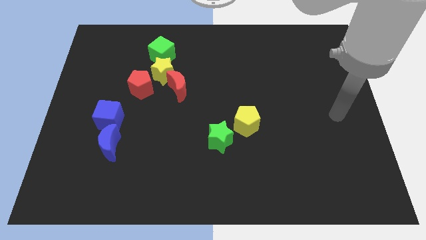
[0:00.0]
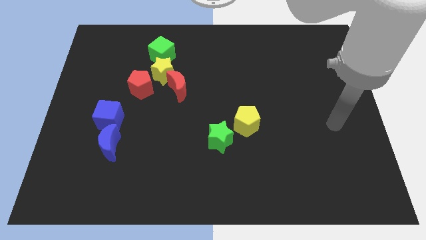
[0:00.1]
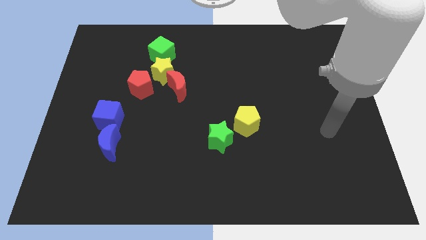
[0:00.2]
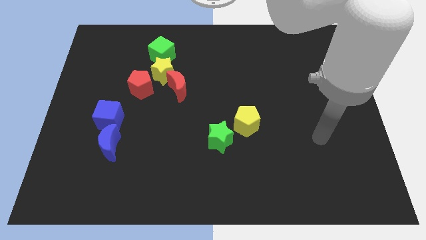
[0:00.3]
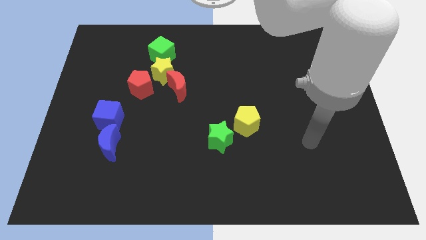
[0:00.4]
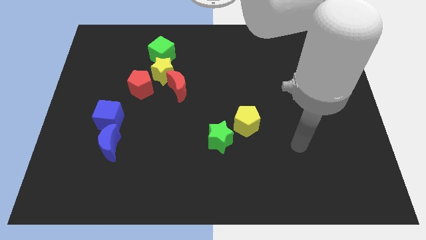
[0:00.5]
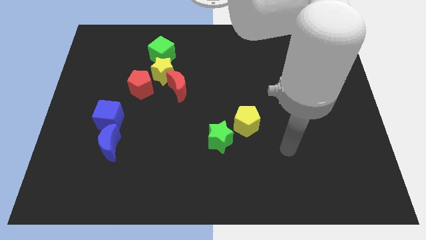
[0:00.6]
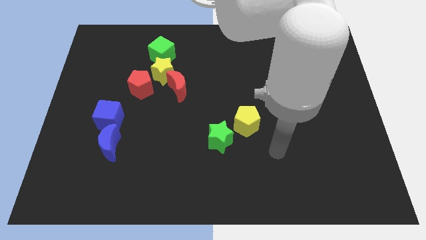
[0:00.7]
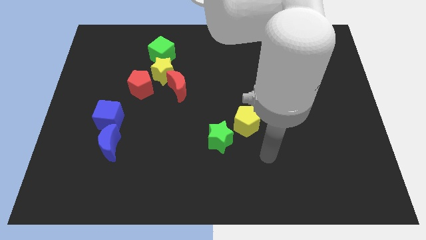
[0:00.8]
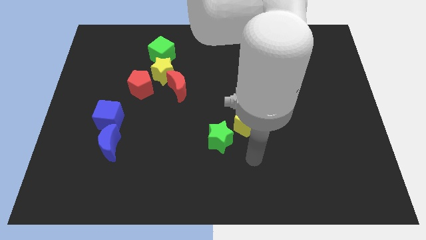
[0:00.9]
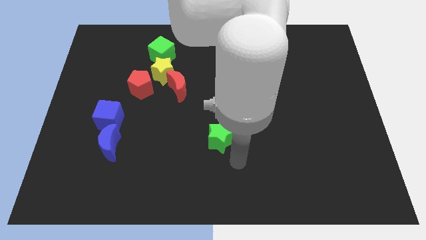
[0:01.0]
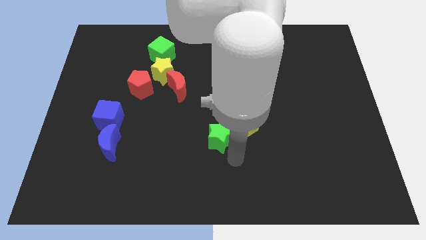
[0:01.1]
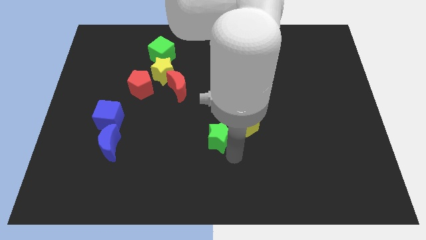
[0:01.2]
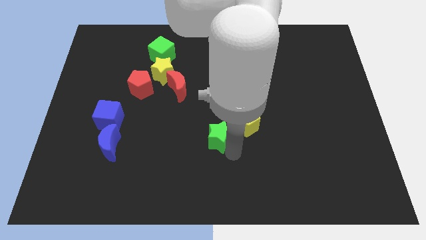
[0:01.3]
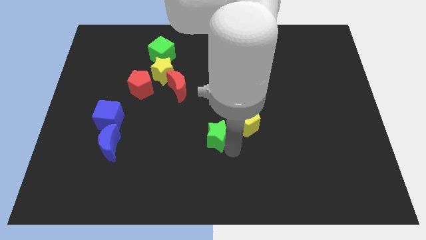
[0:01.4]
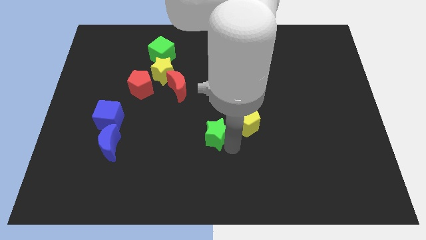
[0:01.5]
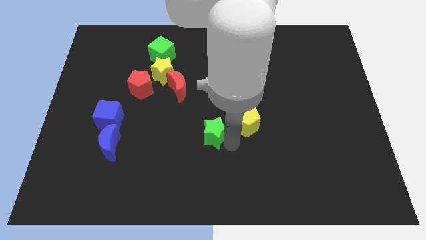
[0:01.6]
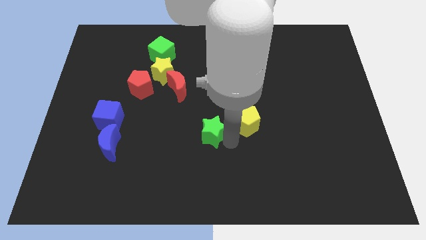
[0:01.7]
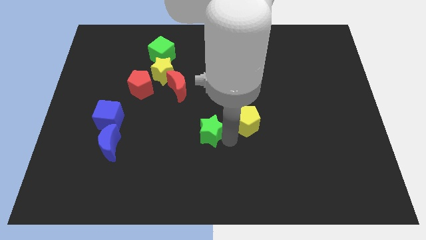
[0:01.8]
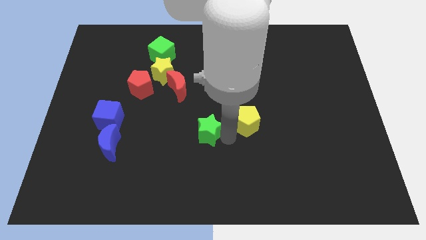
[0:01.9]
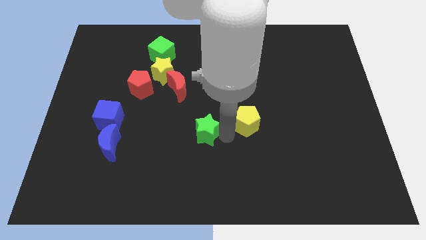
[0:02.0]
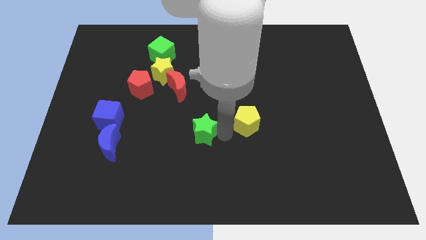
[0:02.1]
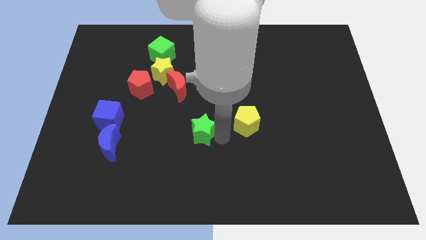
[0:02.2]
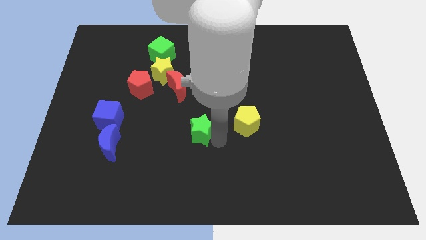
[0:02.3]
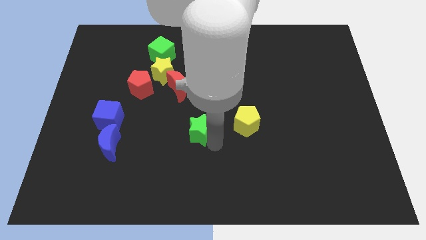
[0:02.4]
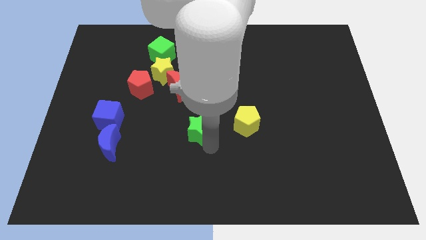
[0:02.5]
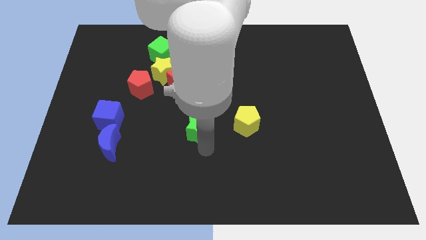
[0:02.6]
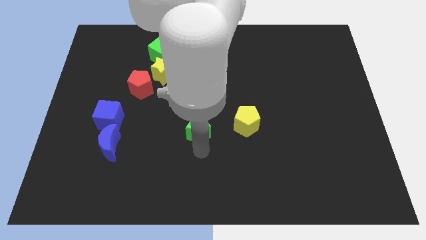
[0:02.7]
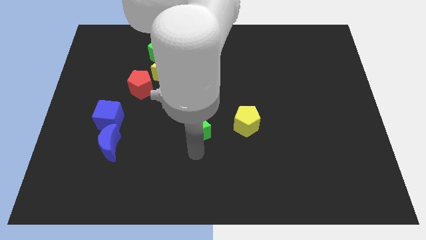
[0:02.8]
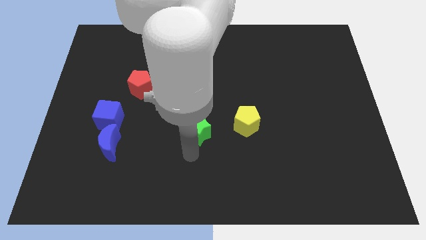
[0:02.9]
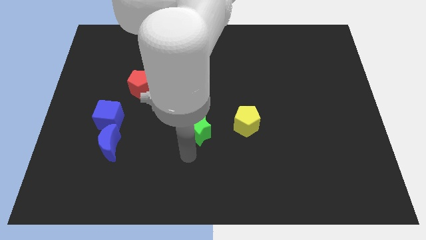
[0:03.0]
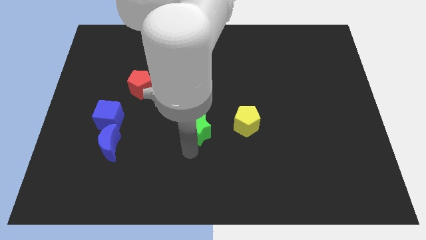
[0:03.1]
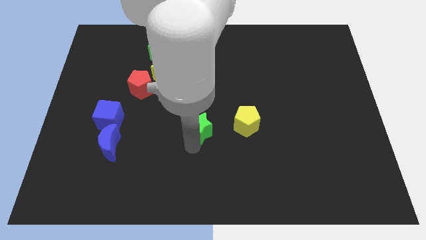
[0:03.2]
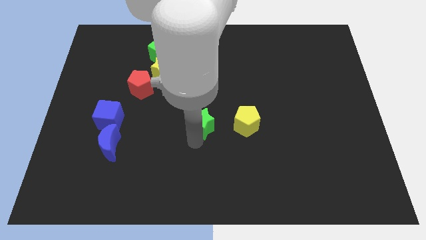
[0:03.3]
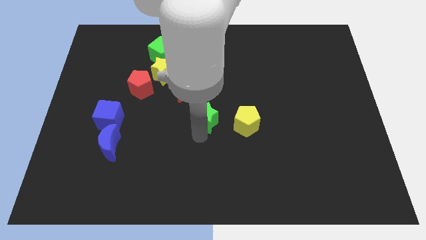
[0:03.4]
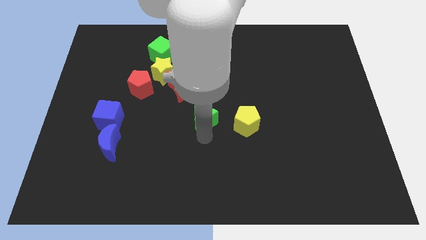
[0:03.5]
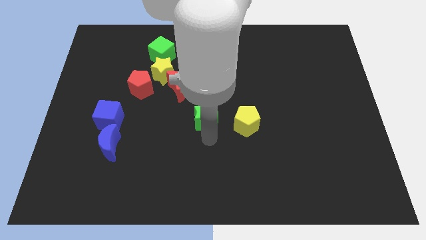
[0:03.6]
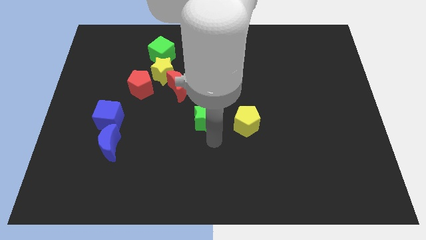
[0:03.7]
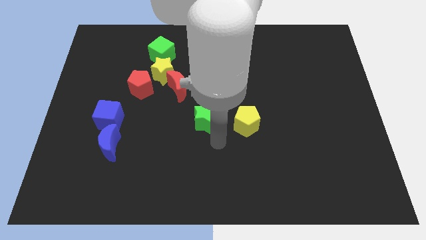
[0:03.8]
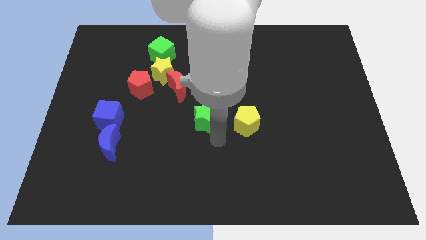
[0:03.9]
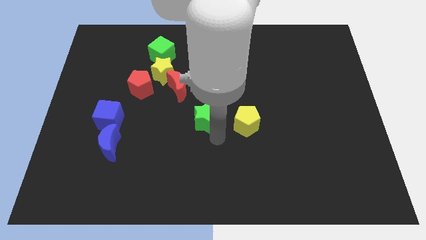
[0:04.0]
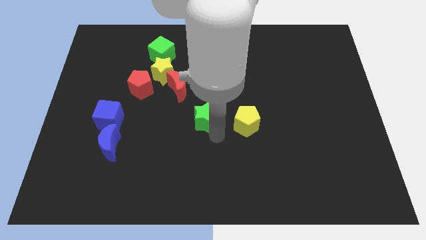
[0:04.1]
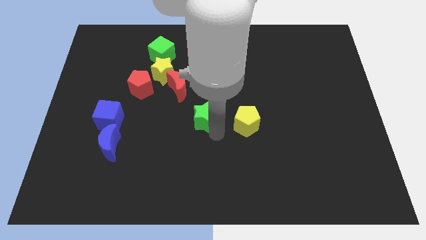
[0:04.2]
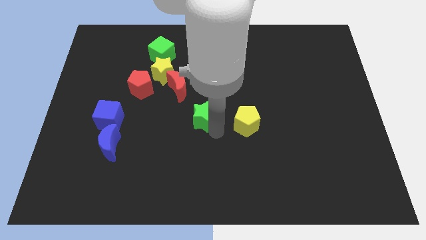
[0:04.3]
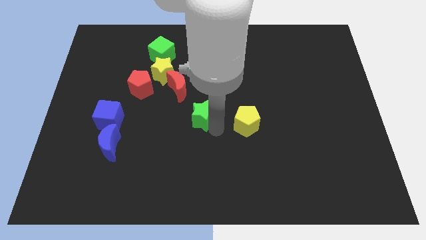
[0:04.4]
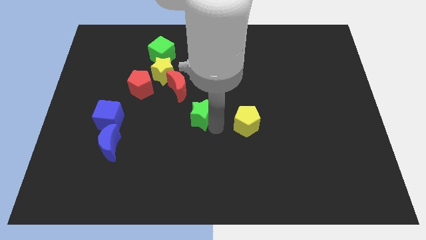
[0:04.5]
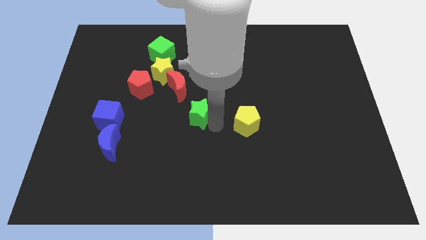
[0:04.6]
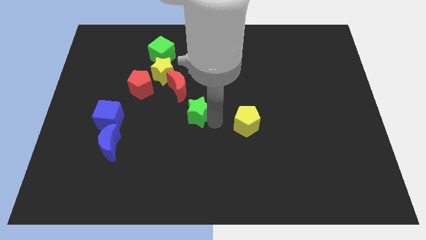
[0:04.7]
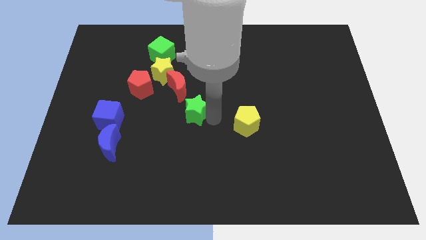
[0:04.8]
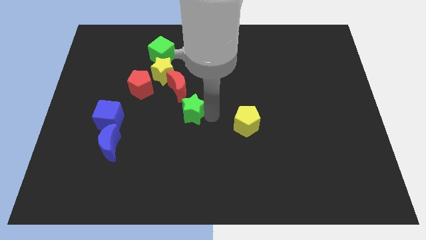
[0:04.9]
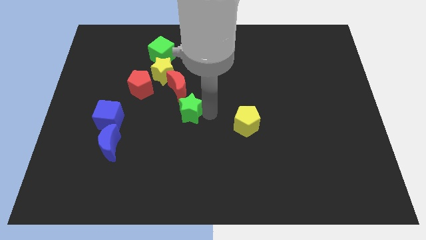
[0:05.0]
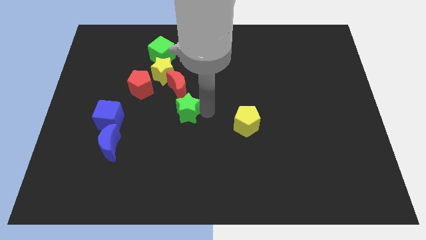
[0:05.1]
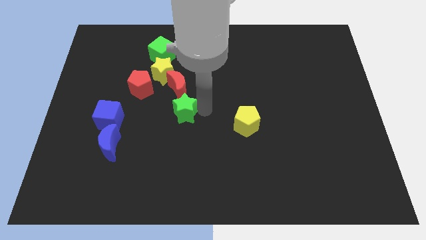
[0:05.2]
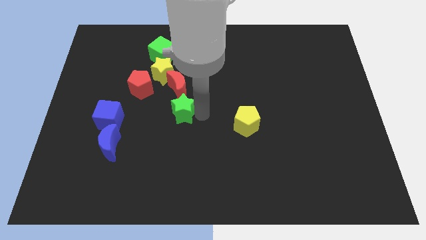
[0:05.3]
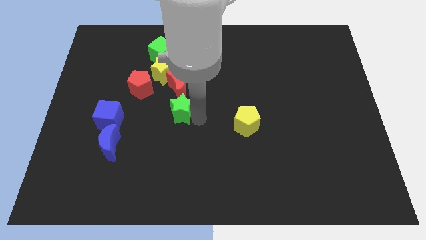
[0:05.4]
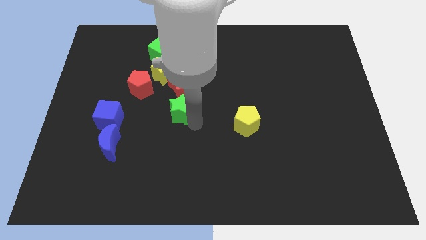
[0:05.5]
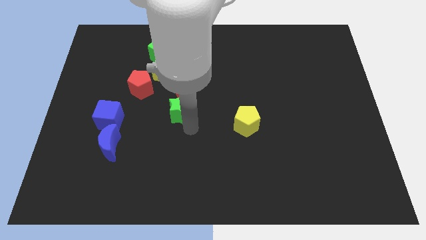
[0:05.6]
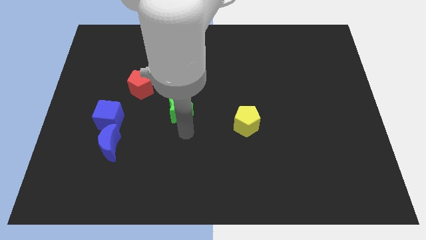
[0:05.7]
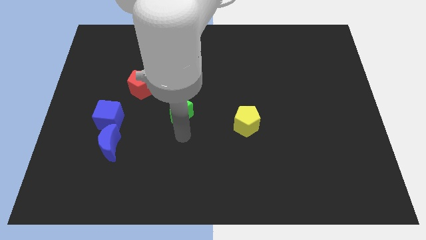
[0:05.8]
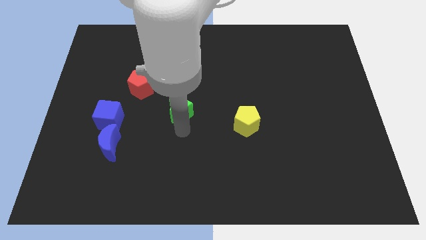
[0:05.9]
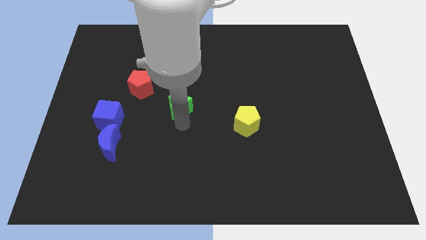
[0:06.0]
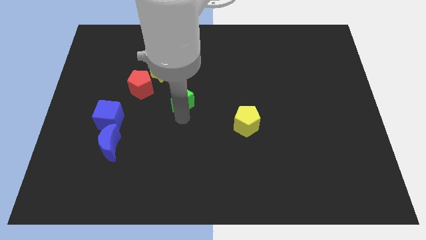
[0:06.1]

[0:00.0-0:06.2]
move the green star to the bottom right of the yellow star

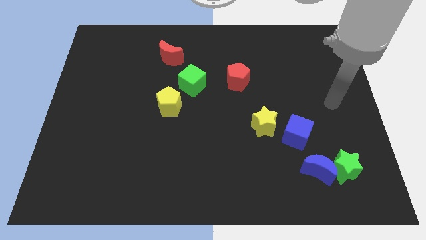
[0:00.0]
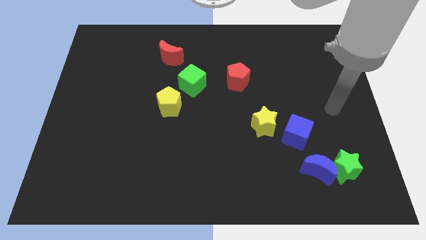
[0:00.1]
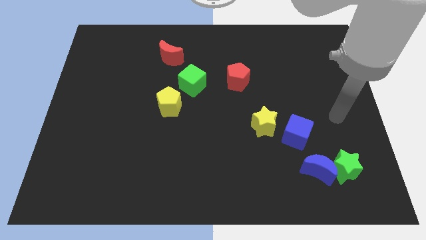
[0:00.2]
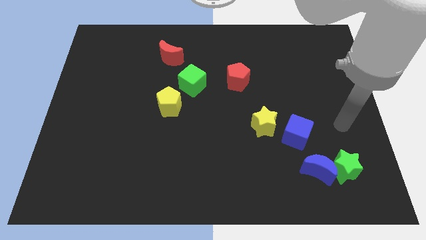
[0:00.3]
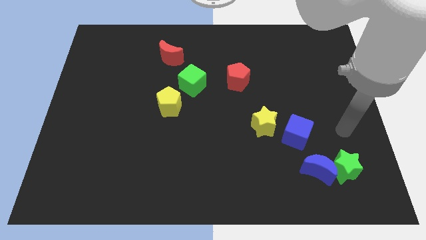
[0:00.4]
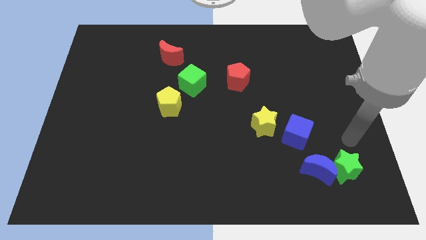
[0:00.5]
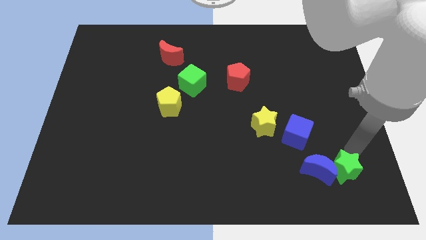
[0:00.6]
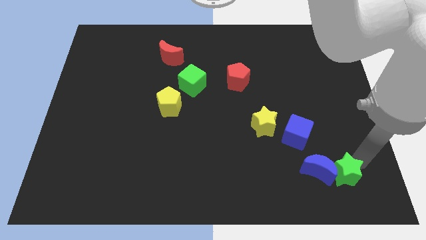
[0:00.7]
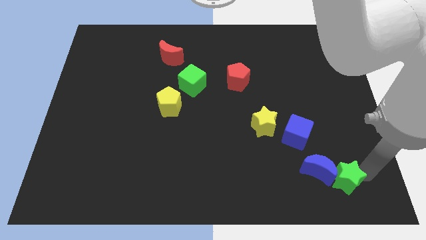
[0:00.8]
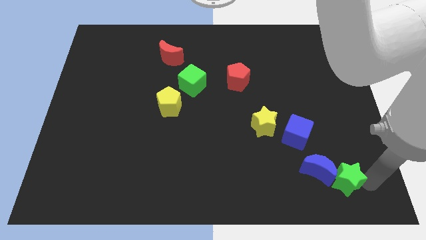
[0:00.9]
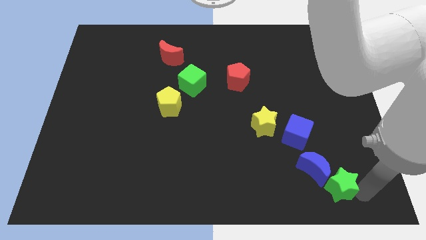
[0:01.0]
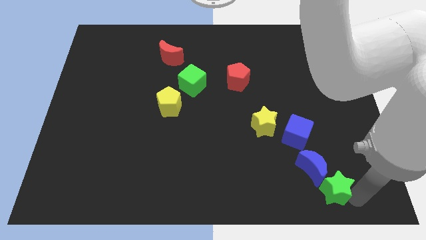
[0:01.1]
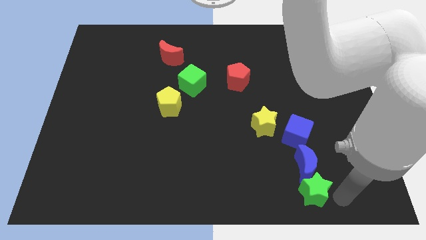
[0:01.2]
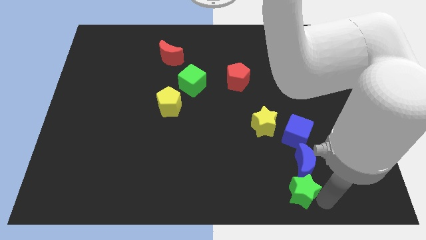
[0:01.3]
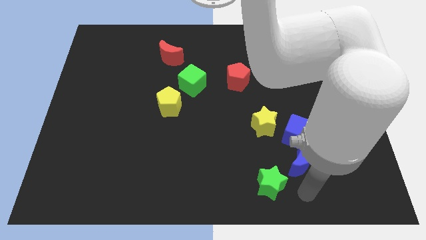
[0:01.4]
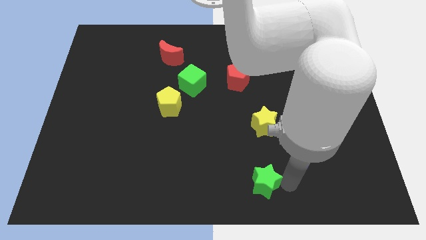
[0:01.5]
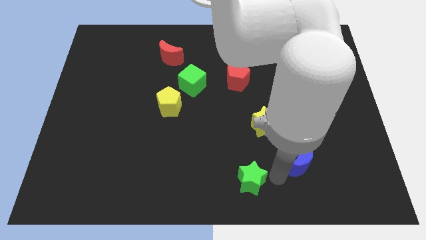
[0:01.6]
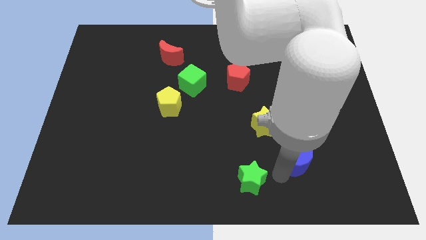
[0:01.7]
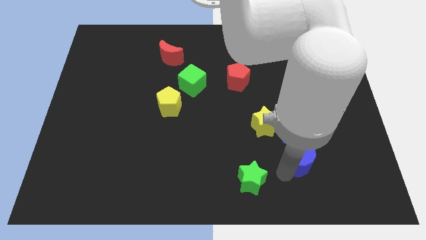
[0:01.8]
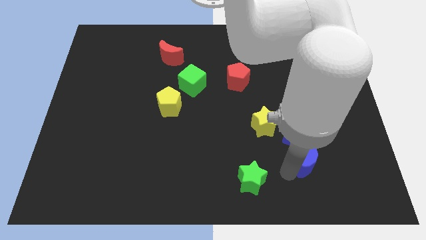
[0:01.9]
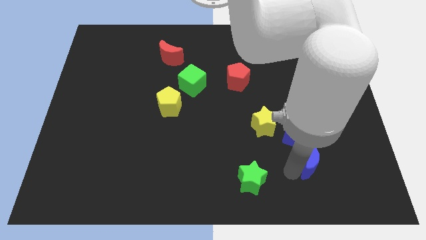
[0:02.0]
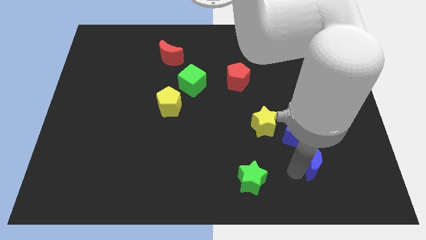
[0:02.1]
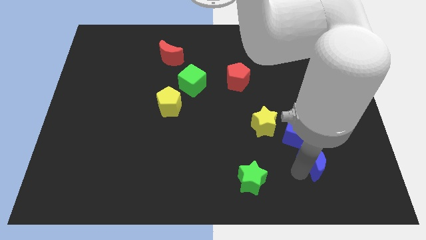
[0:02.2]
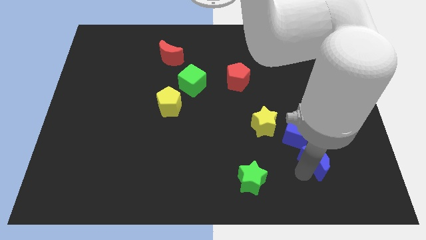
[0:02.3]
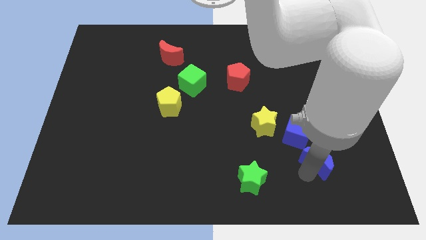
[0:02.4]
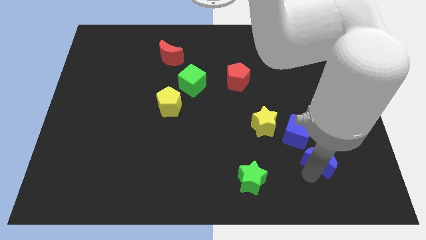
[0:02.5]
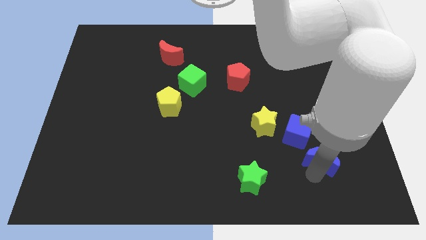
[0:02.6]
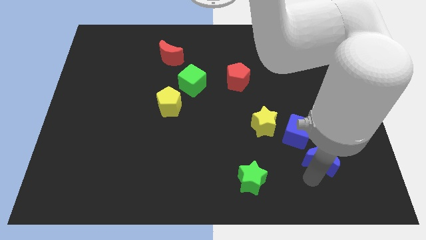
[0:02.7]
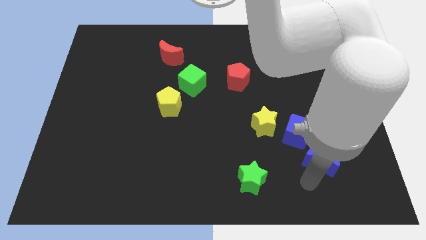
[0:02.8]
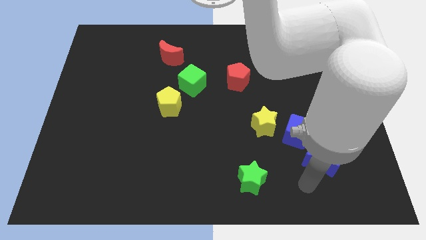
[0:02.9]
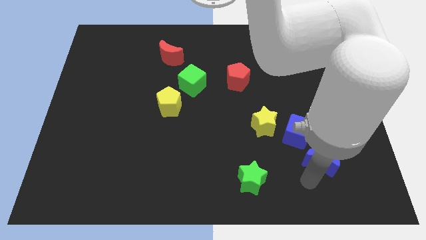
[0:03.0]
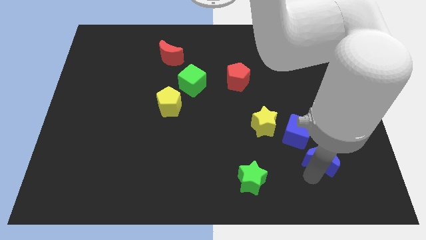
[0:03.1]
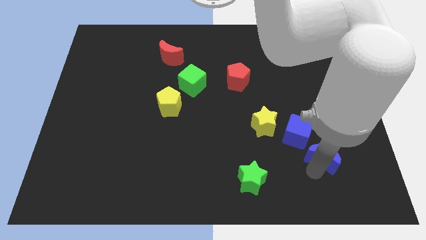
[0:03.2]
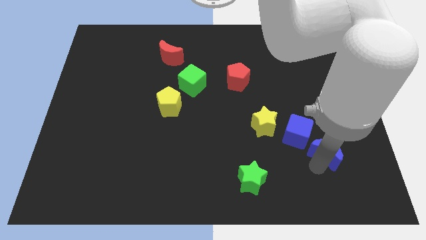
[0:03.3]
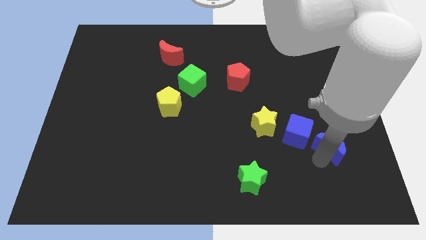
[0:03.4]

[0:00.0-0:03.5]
move the blue moon right of the blue cube
